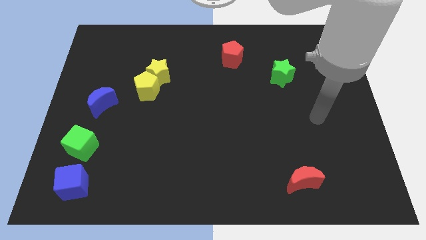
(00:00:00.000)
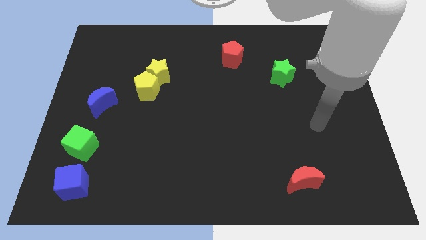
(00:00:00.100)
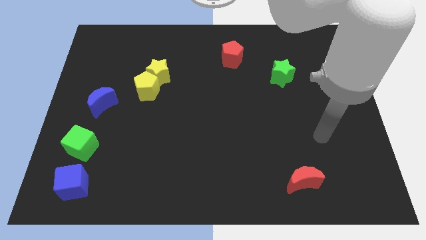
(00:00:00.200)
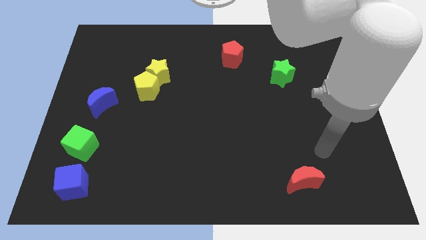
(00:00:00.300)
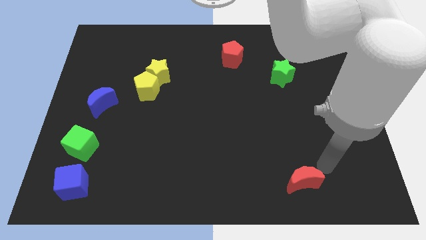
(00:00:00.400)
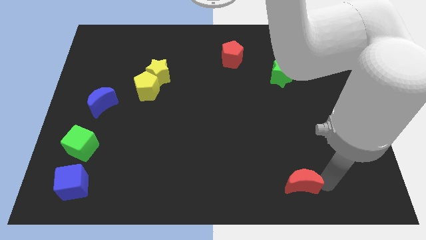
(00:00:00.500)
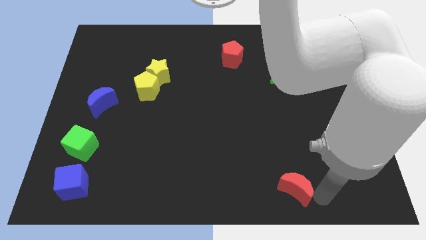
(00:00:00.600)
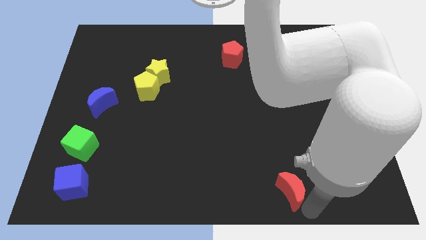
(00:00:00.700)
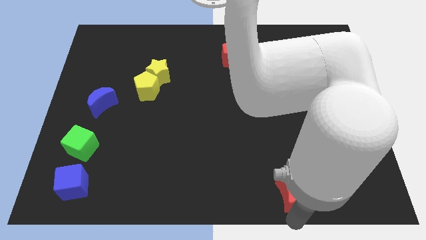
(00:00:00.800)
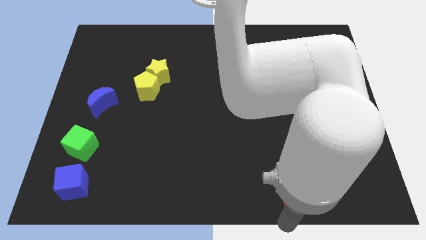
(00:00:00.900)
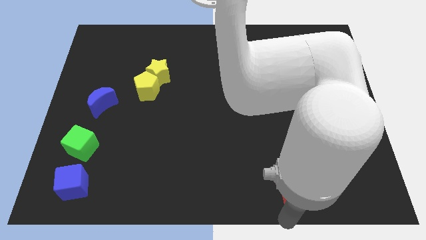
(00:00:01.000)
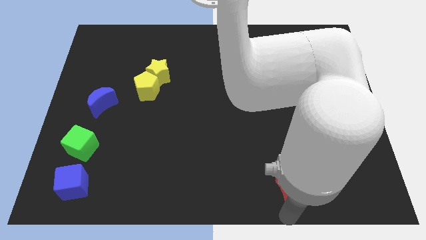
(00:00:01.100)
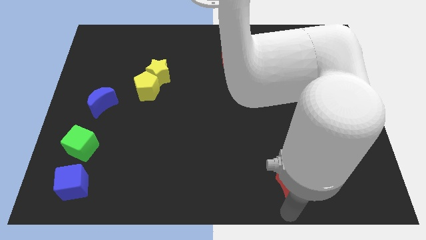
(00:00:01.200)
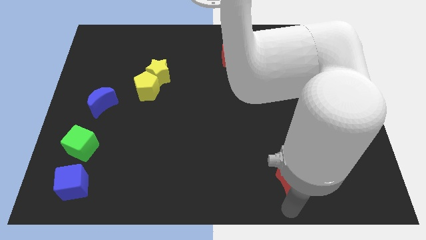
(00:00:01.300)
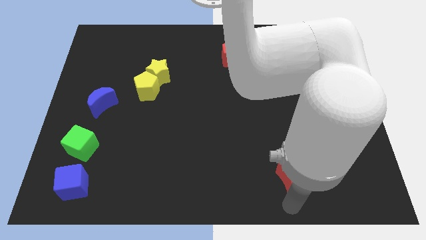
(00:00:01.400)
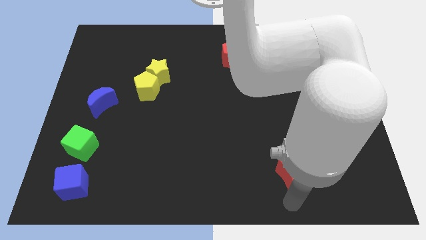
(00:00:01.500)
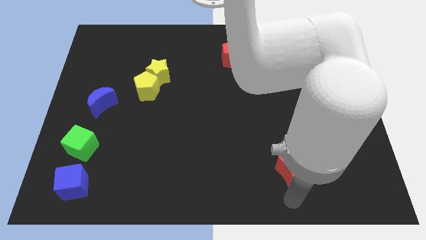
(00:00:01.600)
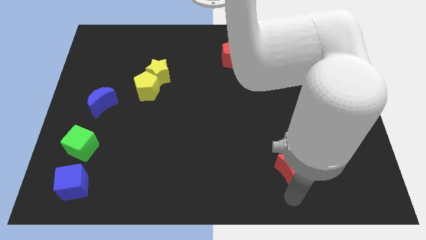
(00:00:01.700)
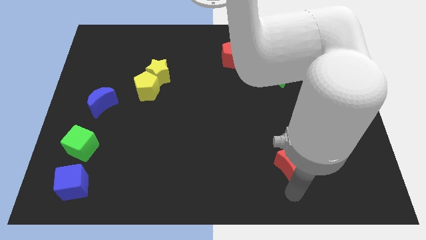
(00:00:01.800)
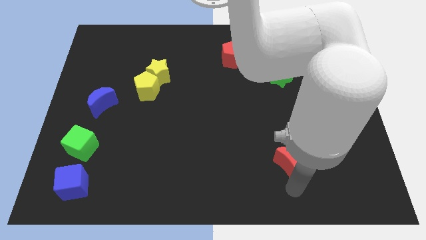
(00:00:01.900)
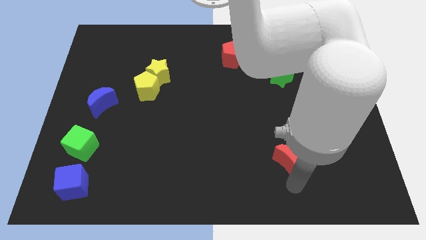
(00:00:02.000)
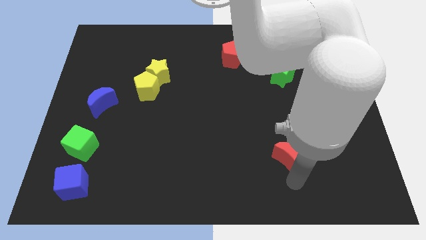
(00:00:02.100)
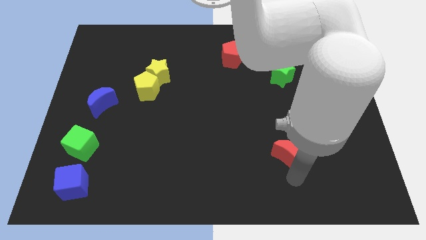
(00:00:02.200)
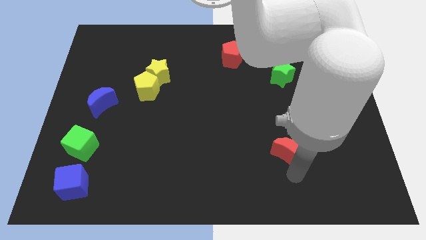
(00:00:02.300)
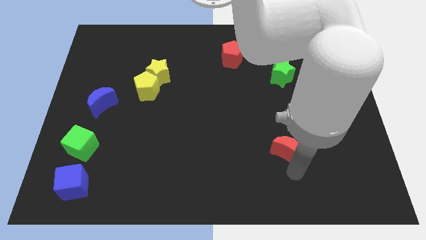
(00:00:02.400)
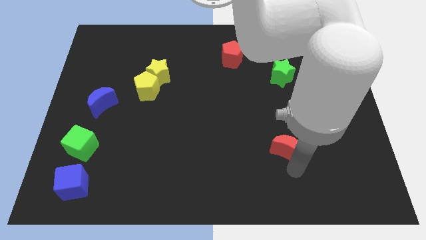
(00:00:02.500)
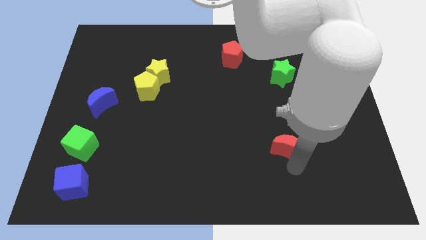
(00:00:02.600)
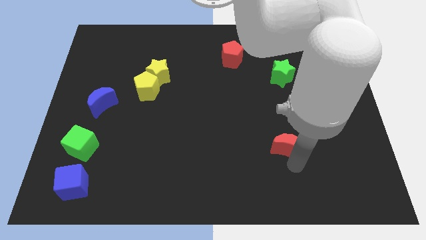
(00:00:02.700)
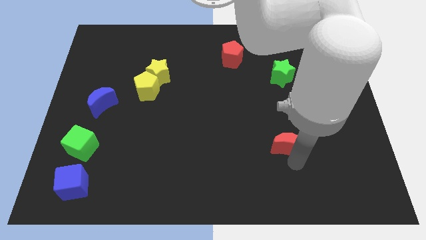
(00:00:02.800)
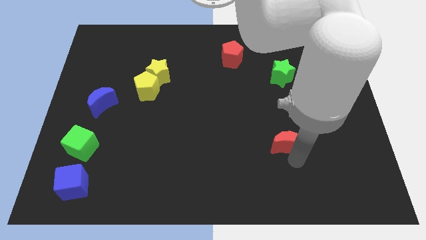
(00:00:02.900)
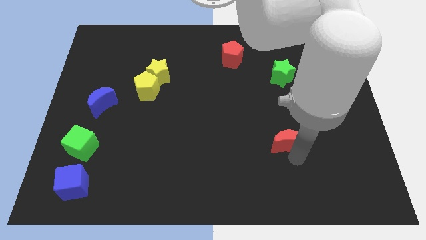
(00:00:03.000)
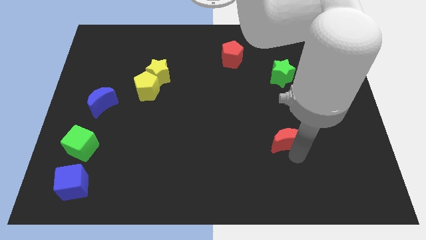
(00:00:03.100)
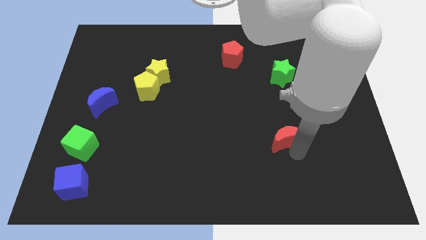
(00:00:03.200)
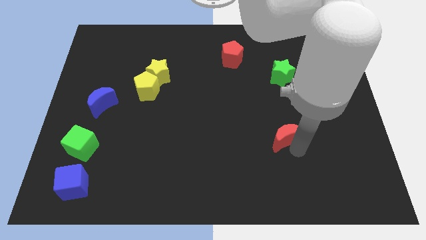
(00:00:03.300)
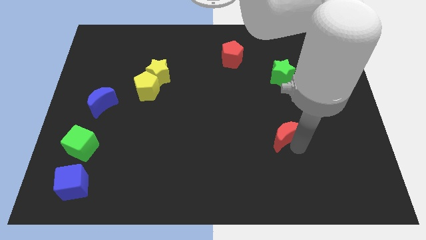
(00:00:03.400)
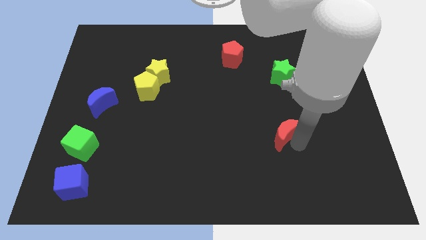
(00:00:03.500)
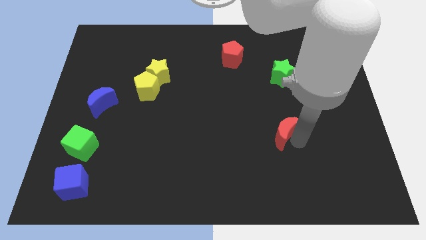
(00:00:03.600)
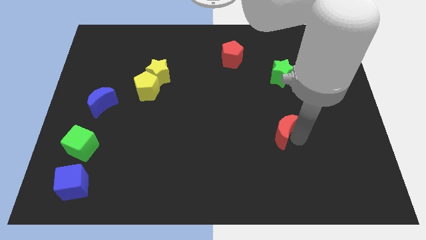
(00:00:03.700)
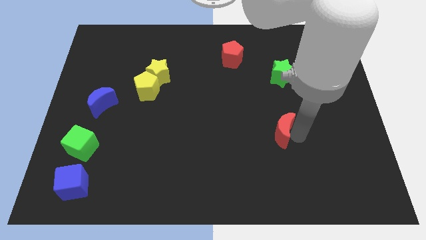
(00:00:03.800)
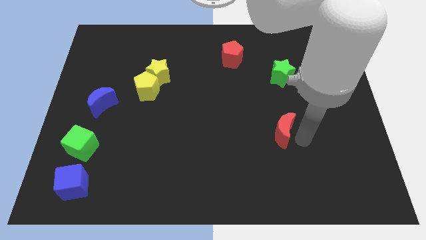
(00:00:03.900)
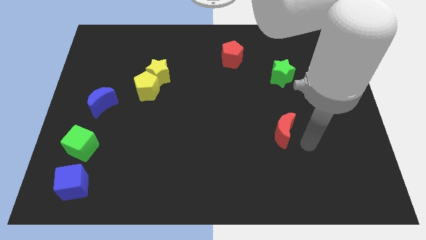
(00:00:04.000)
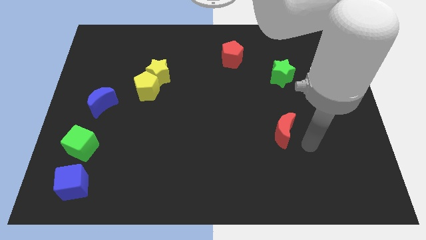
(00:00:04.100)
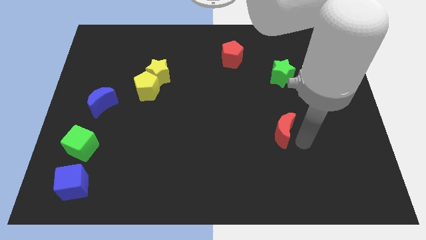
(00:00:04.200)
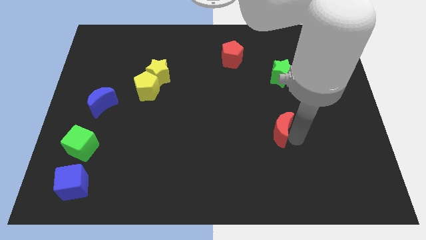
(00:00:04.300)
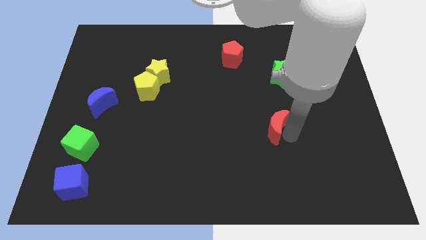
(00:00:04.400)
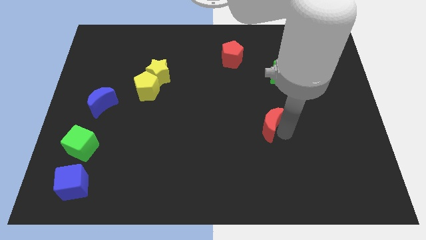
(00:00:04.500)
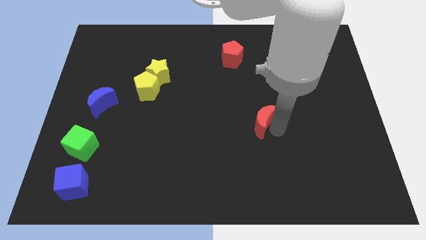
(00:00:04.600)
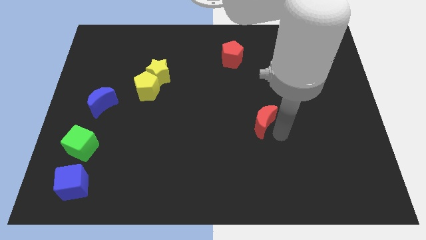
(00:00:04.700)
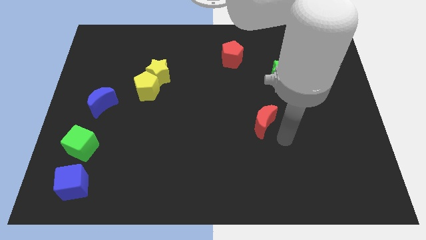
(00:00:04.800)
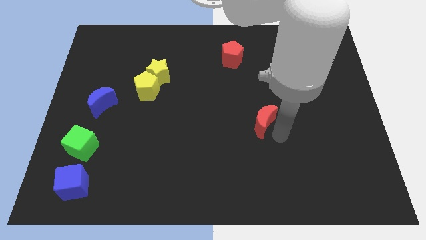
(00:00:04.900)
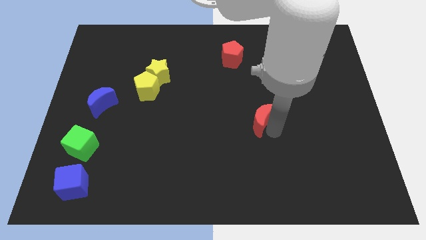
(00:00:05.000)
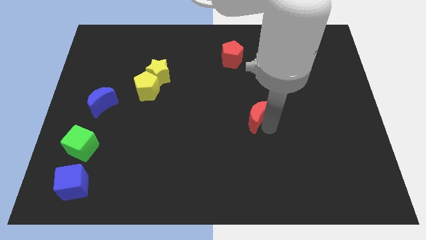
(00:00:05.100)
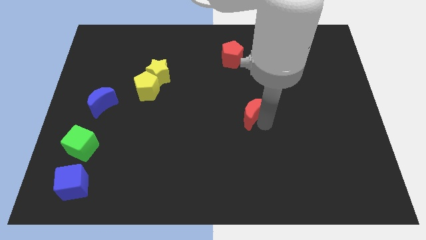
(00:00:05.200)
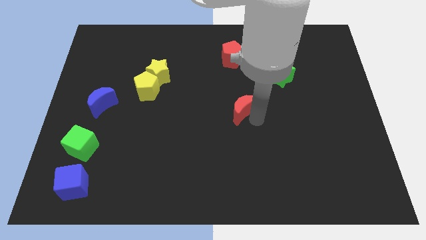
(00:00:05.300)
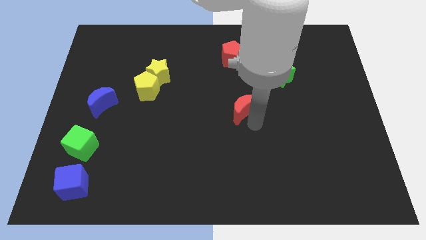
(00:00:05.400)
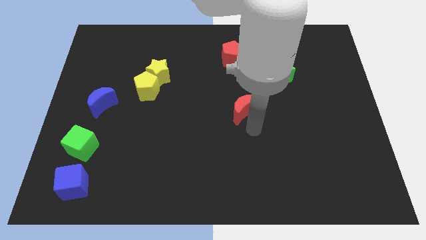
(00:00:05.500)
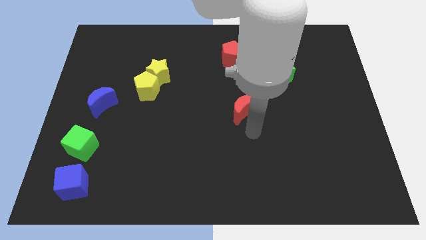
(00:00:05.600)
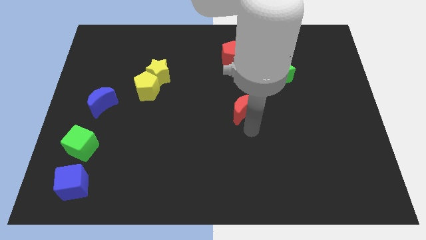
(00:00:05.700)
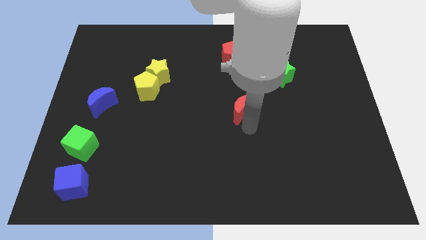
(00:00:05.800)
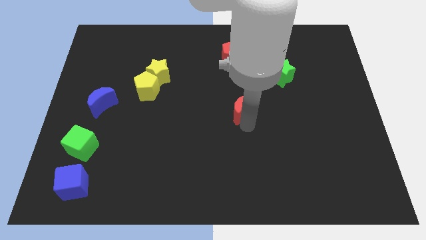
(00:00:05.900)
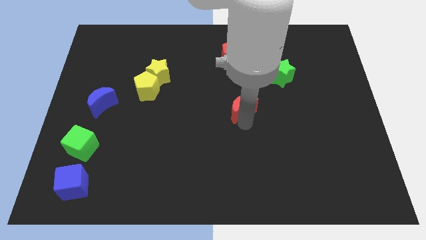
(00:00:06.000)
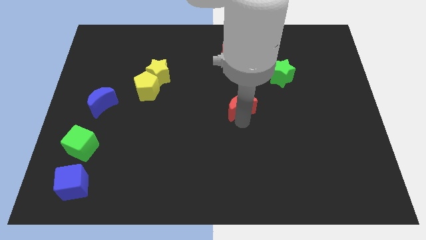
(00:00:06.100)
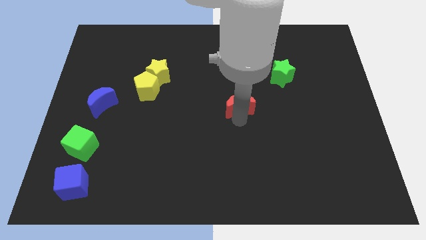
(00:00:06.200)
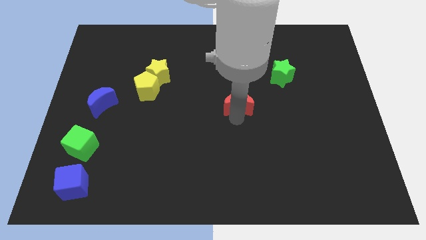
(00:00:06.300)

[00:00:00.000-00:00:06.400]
push the red moon to the bottom side of the red pentagon

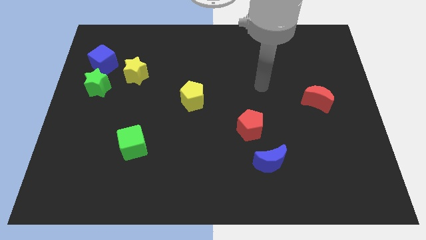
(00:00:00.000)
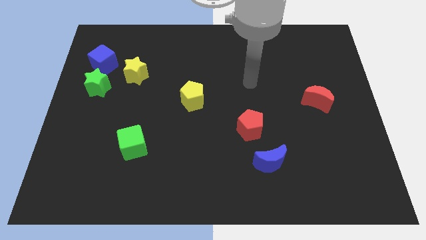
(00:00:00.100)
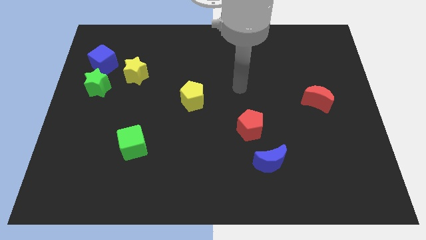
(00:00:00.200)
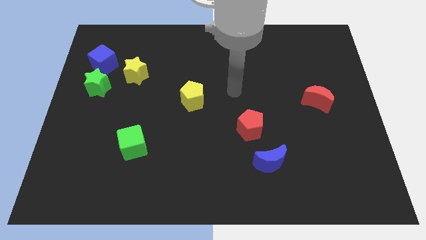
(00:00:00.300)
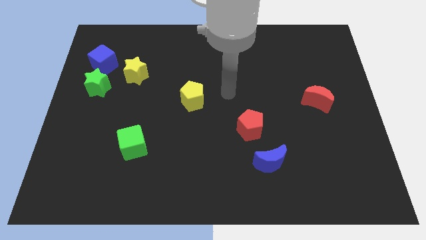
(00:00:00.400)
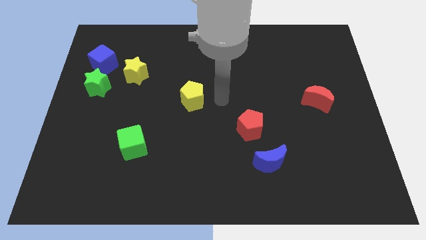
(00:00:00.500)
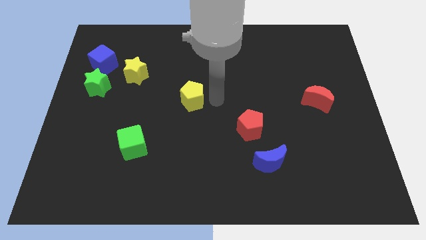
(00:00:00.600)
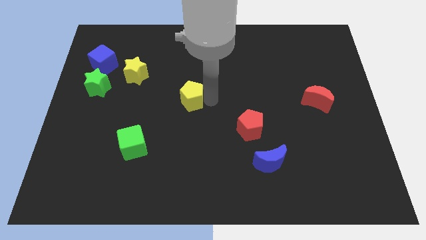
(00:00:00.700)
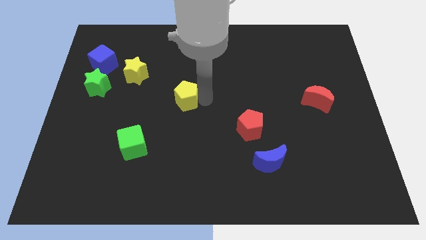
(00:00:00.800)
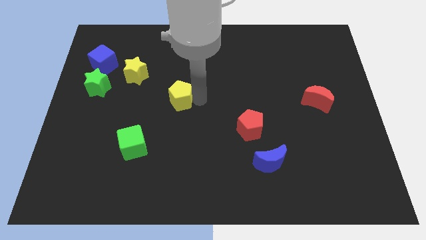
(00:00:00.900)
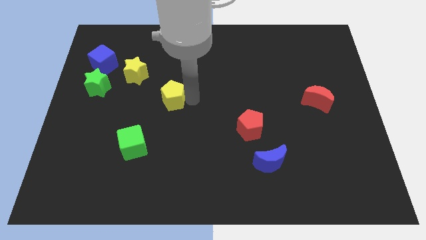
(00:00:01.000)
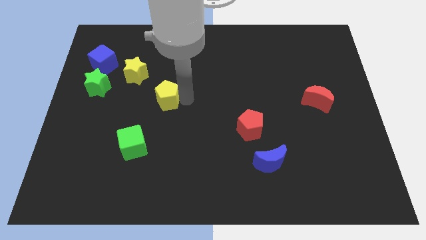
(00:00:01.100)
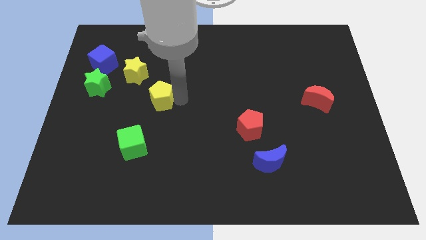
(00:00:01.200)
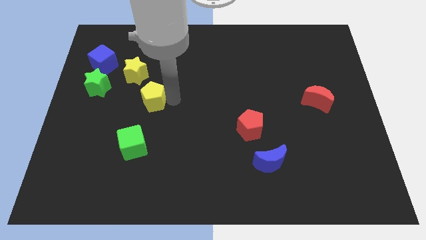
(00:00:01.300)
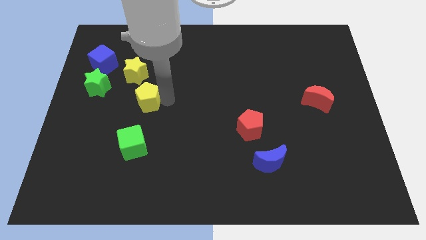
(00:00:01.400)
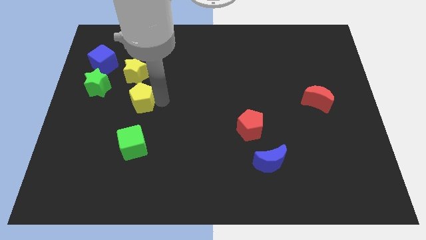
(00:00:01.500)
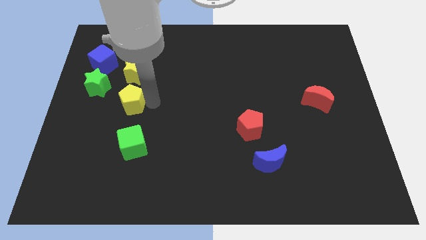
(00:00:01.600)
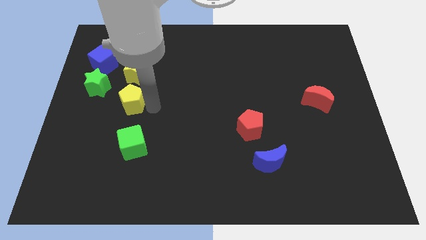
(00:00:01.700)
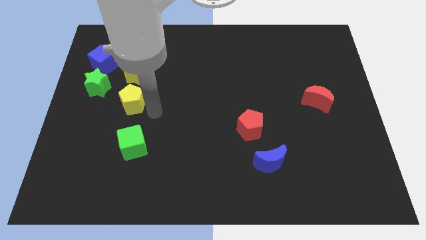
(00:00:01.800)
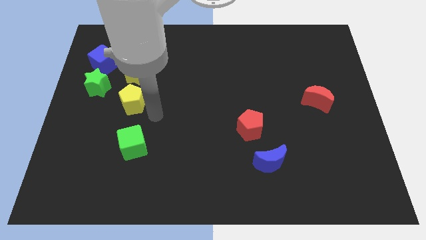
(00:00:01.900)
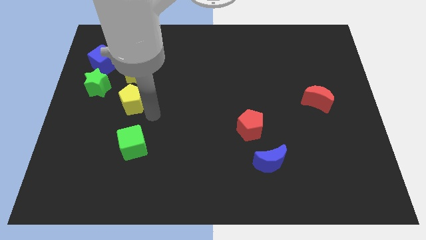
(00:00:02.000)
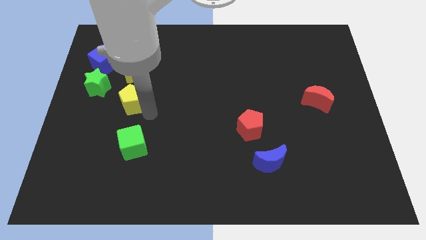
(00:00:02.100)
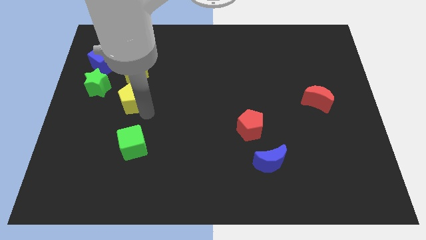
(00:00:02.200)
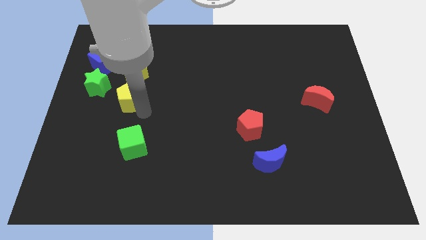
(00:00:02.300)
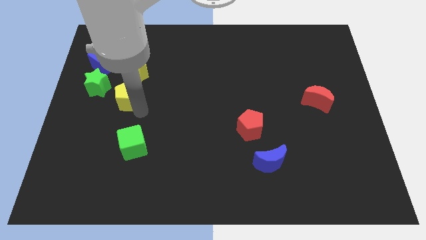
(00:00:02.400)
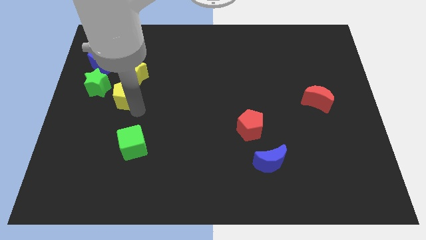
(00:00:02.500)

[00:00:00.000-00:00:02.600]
slide the yellow pentagon to the bottom left side of the yellow star
